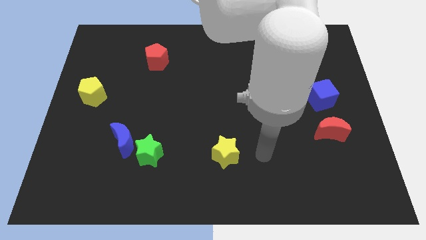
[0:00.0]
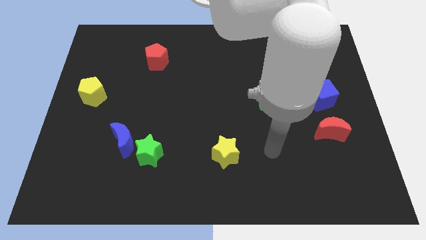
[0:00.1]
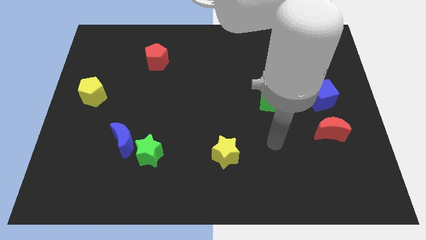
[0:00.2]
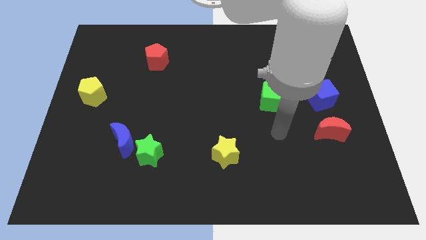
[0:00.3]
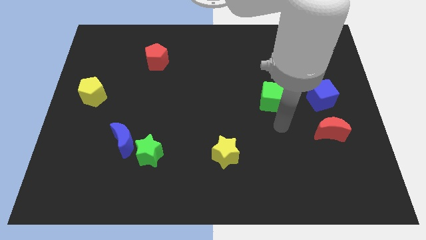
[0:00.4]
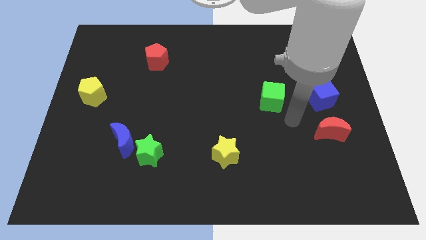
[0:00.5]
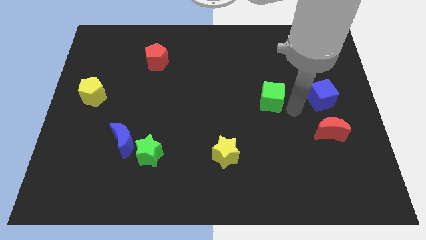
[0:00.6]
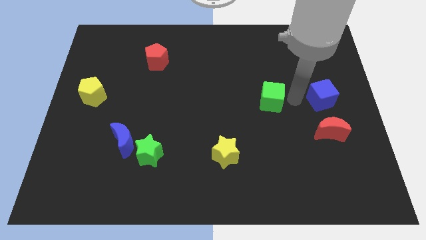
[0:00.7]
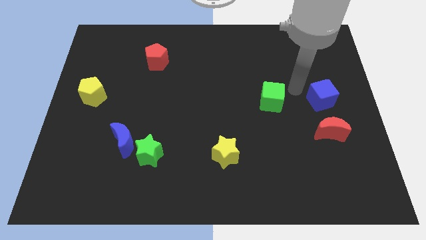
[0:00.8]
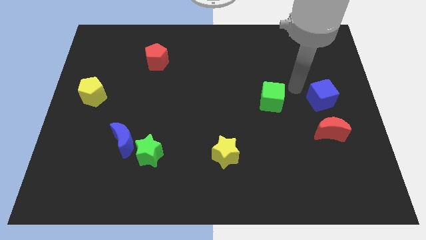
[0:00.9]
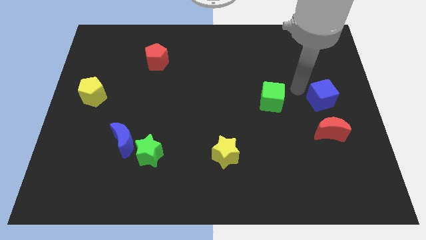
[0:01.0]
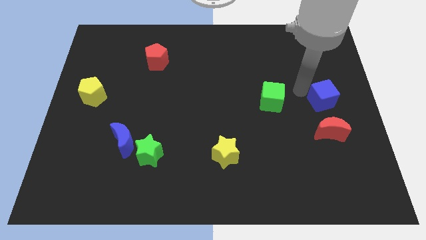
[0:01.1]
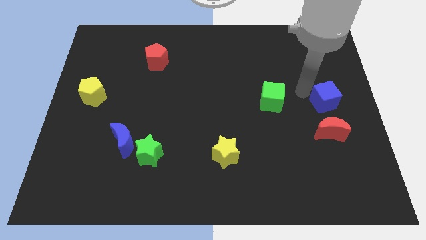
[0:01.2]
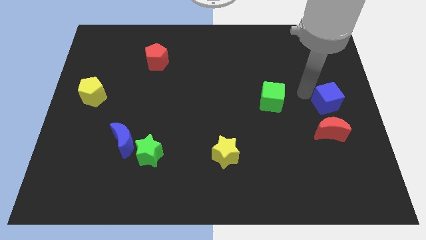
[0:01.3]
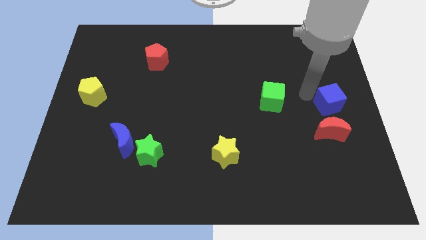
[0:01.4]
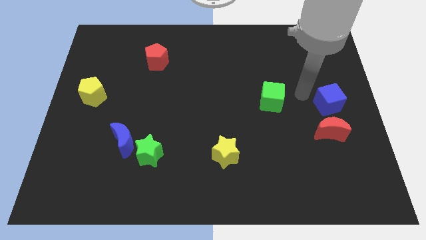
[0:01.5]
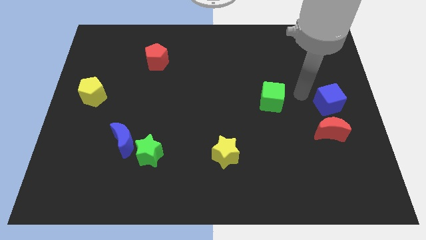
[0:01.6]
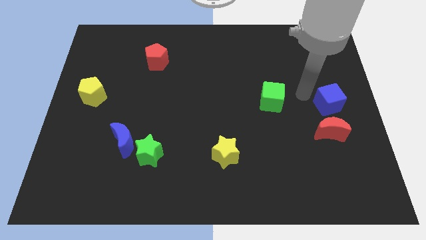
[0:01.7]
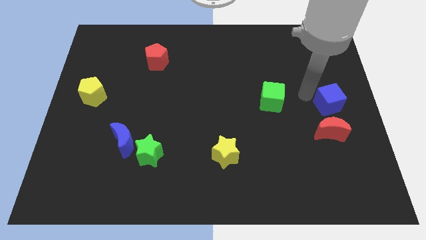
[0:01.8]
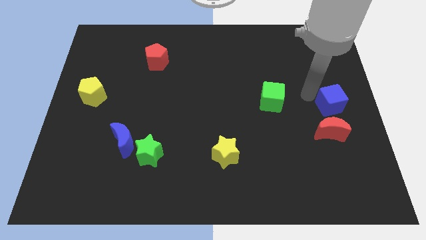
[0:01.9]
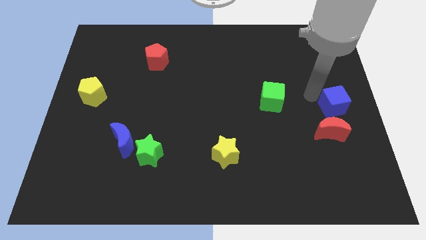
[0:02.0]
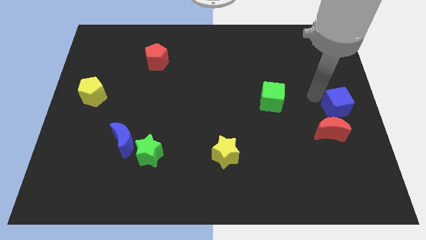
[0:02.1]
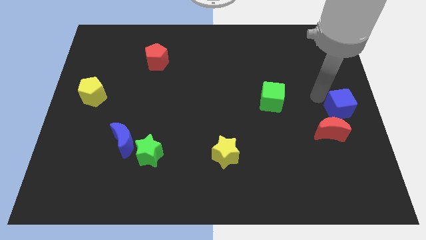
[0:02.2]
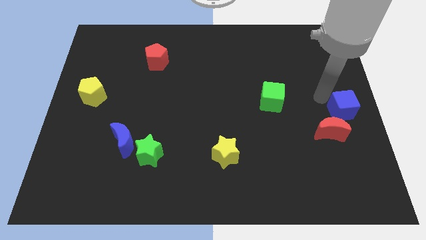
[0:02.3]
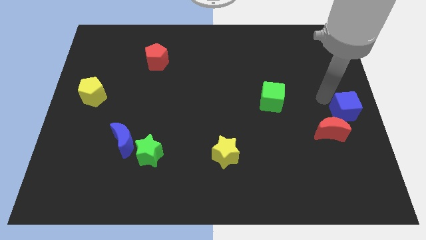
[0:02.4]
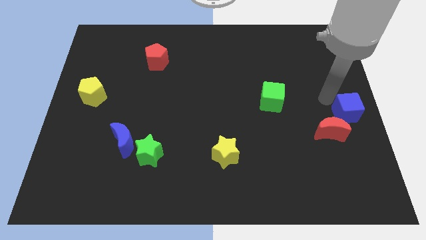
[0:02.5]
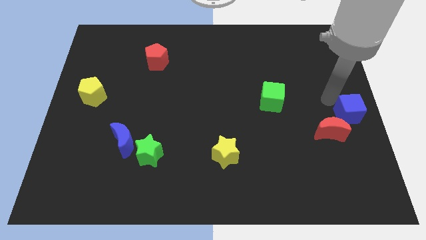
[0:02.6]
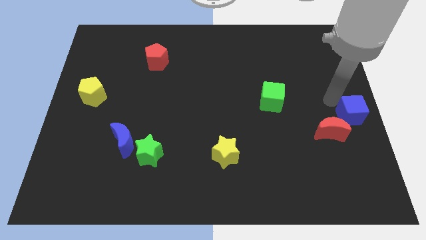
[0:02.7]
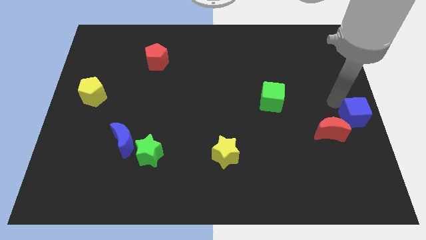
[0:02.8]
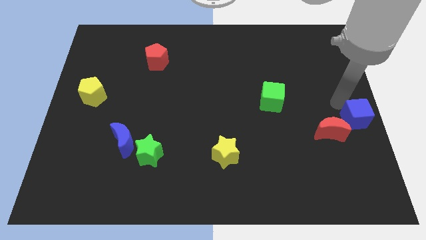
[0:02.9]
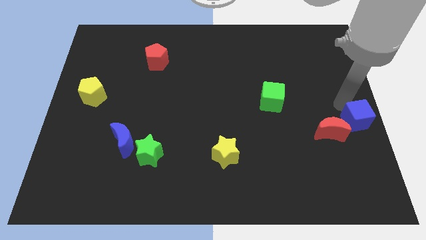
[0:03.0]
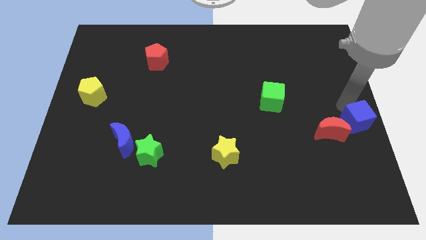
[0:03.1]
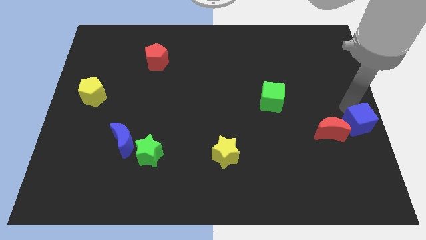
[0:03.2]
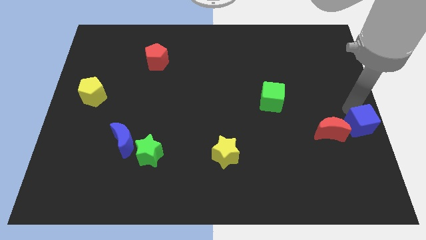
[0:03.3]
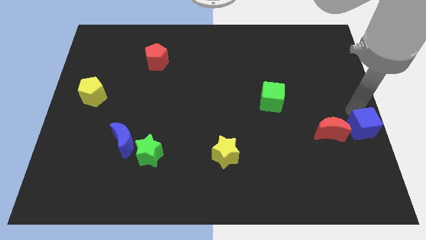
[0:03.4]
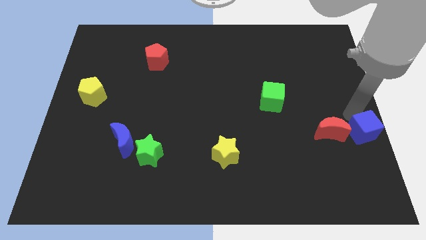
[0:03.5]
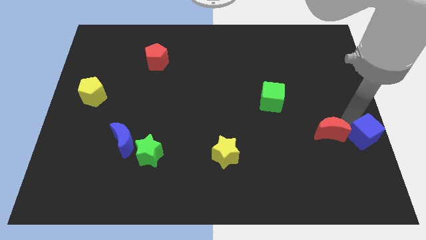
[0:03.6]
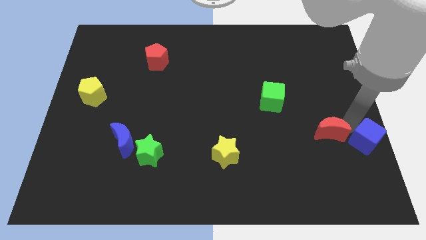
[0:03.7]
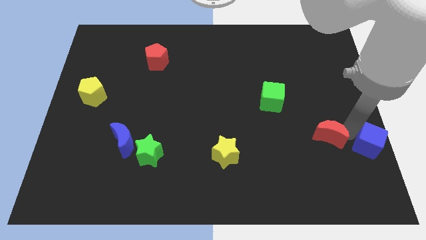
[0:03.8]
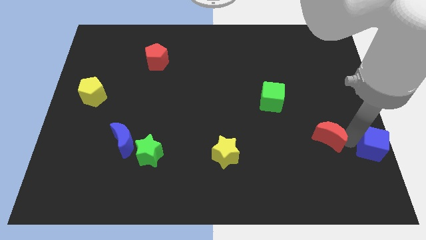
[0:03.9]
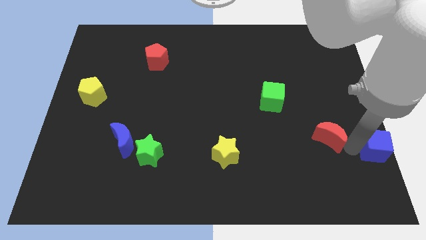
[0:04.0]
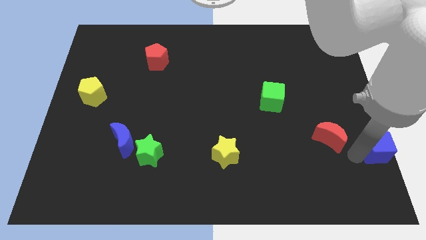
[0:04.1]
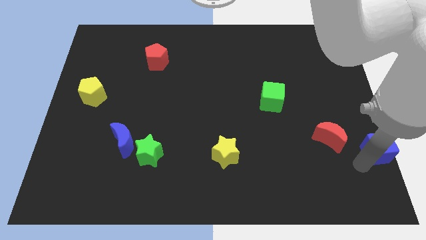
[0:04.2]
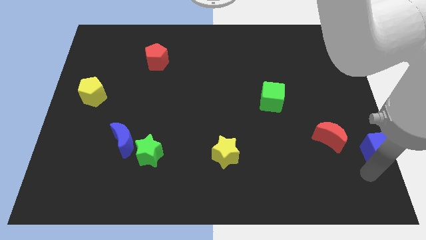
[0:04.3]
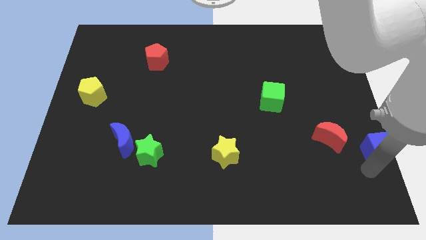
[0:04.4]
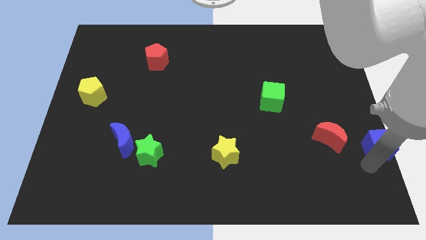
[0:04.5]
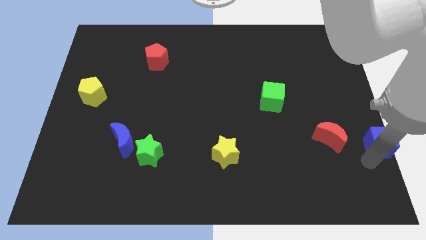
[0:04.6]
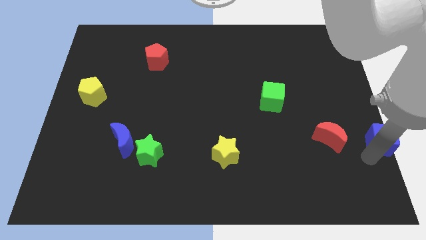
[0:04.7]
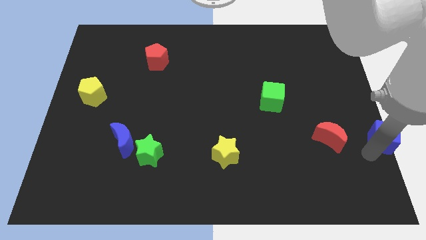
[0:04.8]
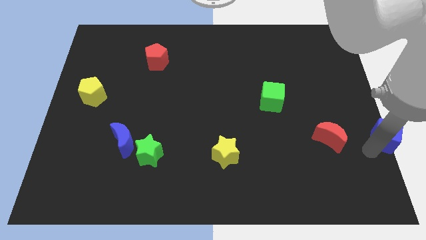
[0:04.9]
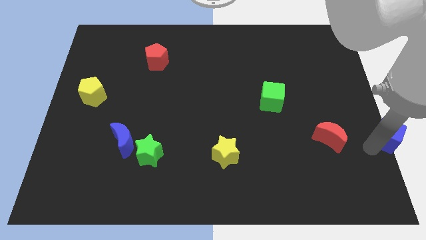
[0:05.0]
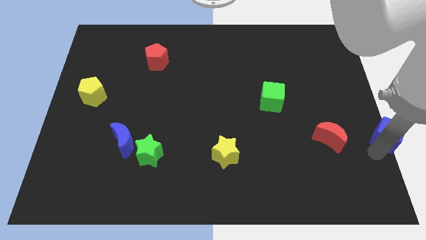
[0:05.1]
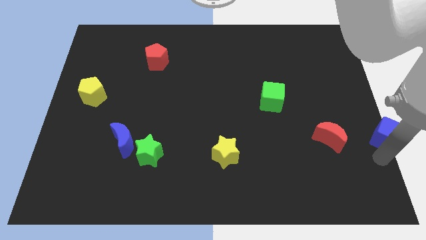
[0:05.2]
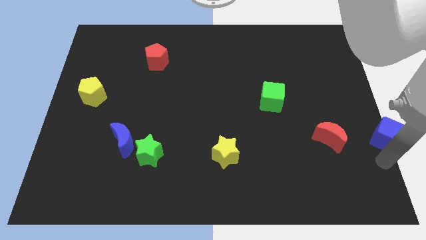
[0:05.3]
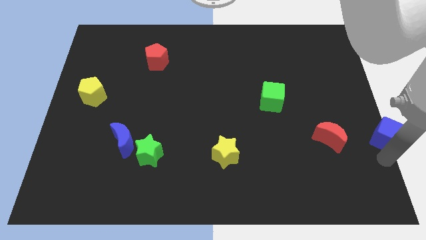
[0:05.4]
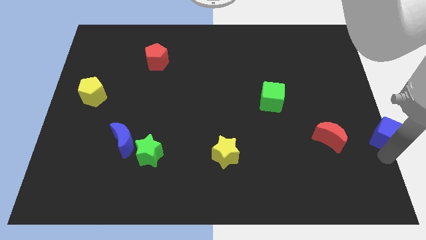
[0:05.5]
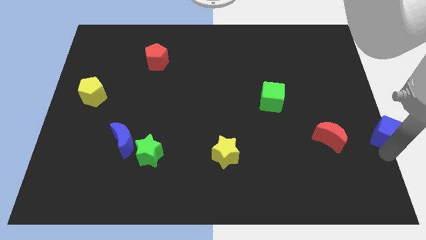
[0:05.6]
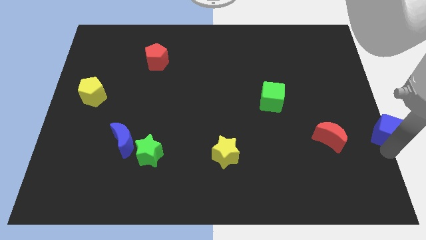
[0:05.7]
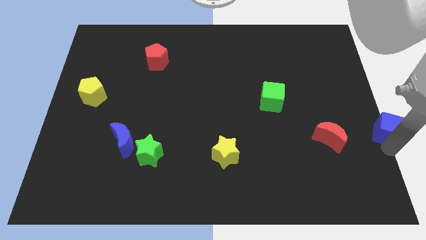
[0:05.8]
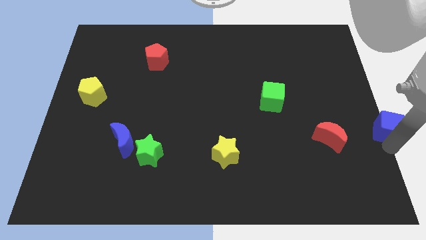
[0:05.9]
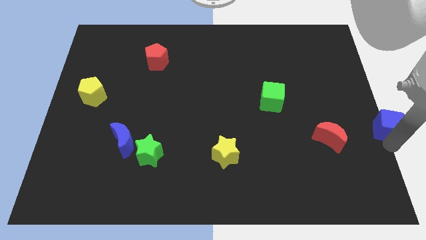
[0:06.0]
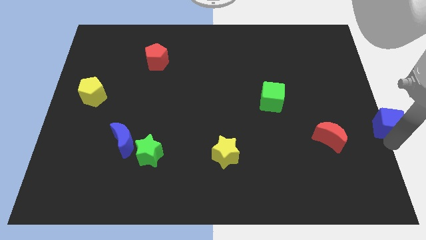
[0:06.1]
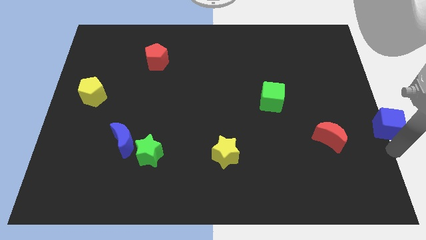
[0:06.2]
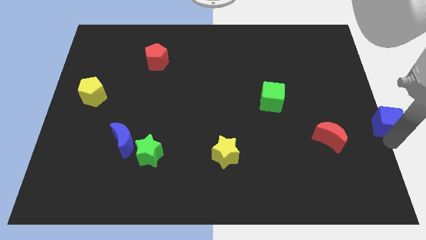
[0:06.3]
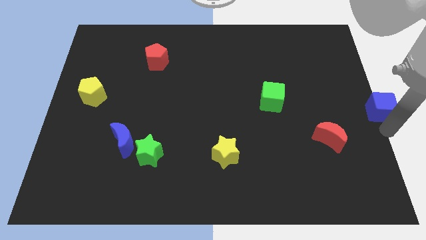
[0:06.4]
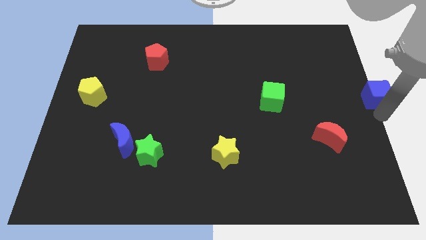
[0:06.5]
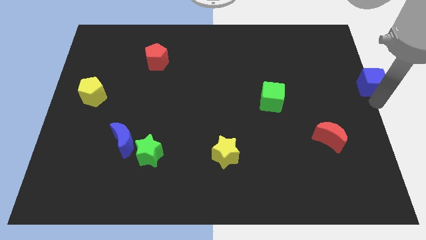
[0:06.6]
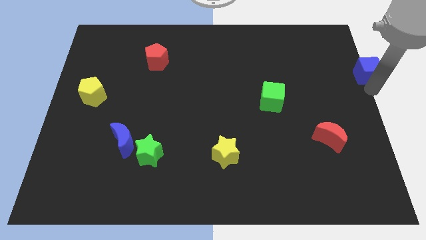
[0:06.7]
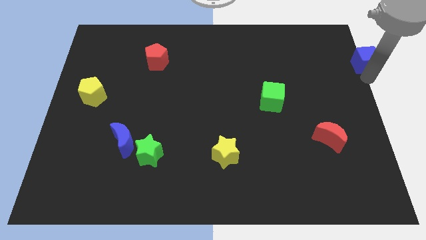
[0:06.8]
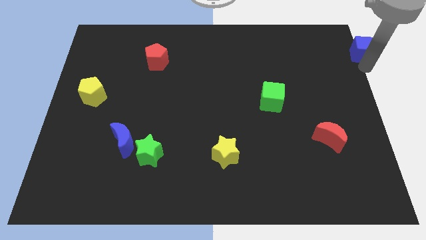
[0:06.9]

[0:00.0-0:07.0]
push the blue cube to the upper right corner

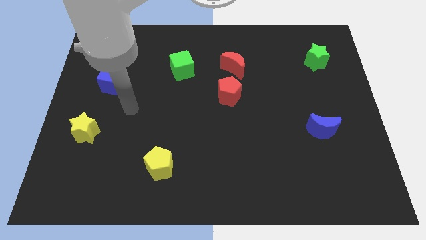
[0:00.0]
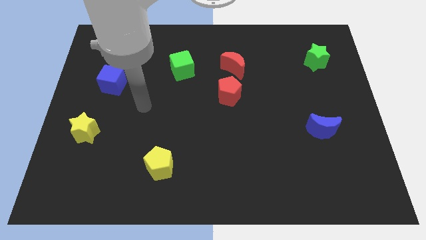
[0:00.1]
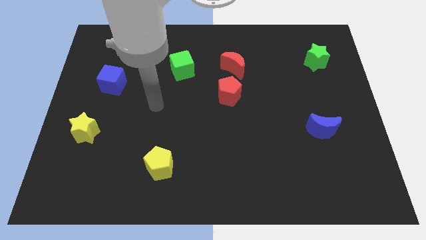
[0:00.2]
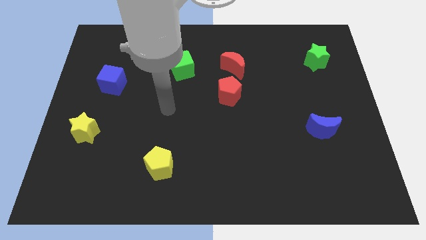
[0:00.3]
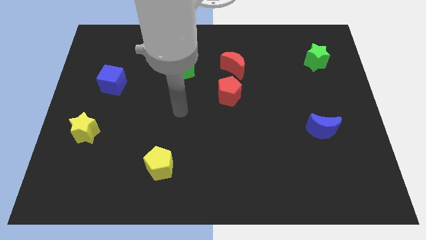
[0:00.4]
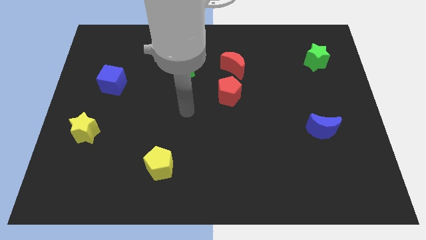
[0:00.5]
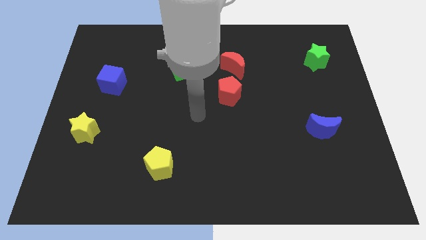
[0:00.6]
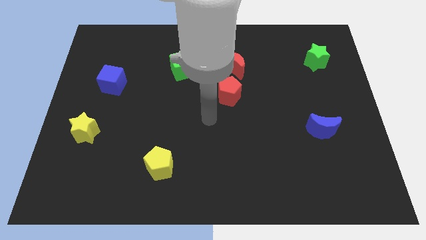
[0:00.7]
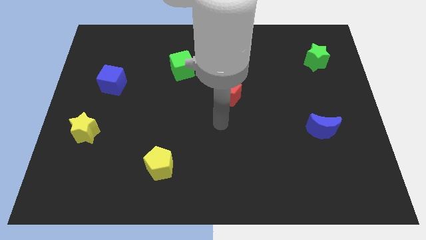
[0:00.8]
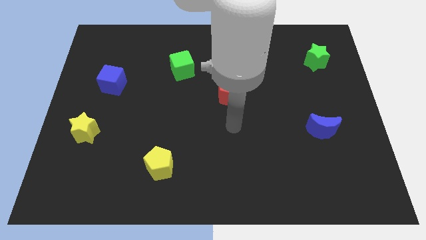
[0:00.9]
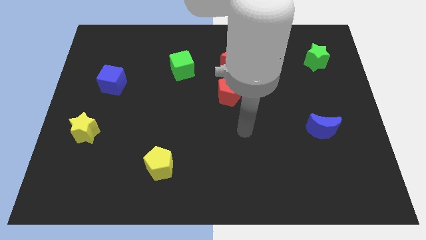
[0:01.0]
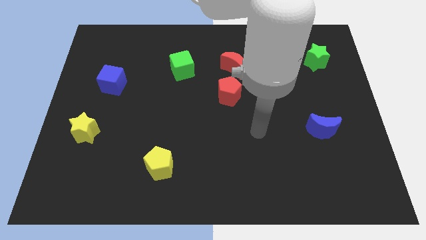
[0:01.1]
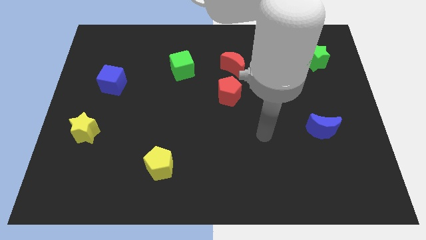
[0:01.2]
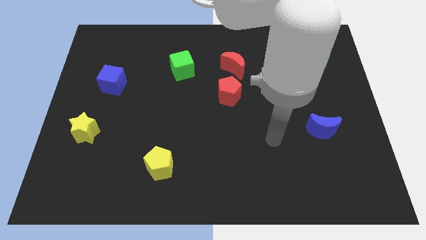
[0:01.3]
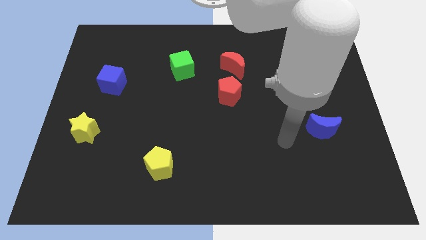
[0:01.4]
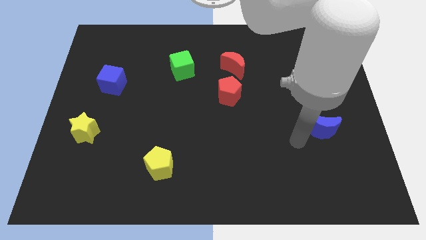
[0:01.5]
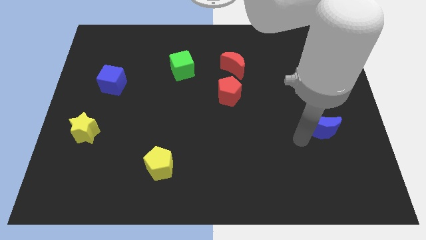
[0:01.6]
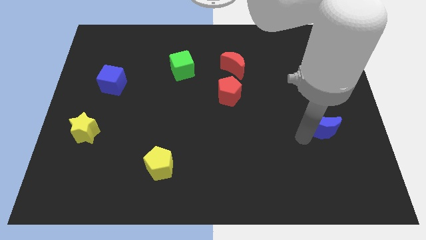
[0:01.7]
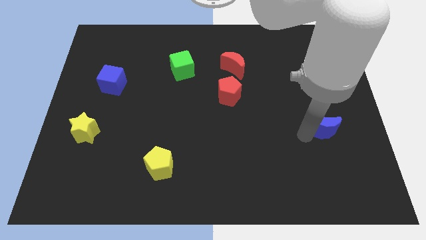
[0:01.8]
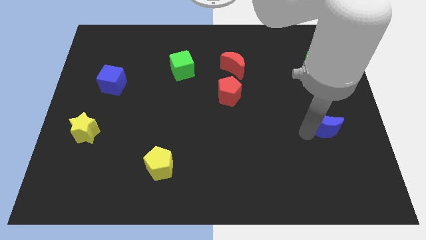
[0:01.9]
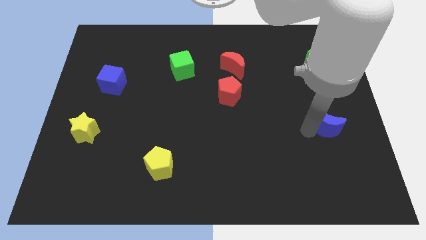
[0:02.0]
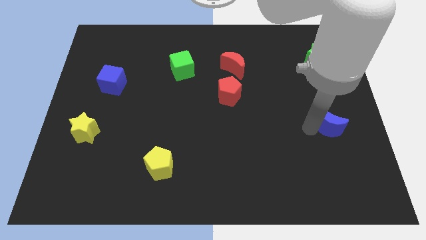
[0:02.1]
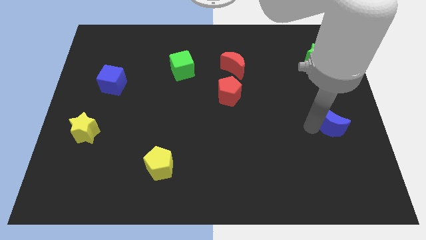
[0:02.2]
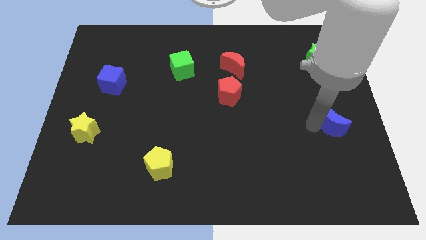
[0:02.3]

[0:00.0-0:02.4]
push the blue moon to the center right
